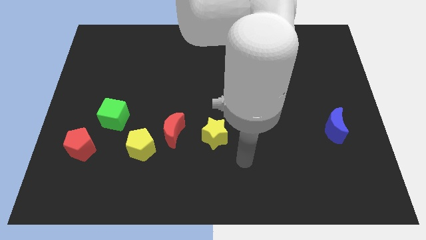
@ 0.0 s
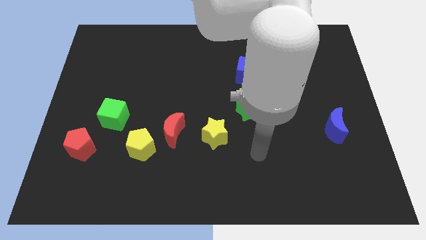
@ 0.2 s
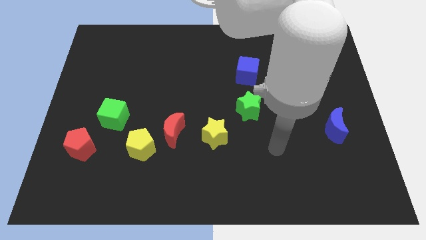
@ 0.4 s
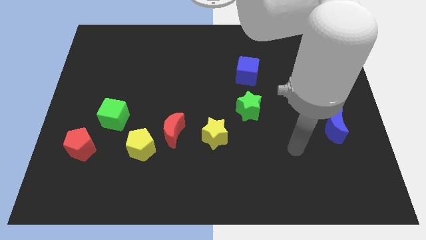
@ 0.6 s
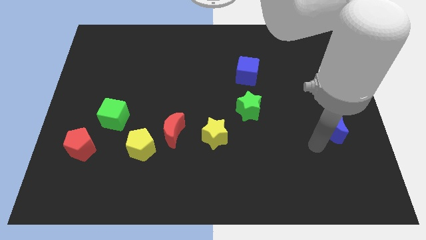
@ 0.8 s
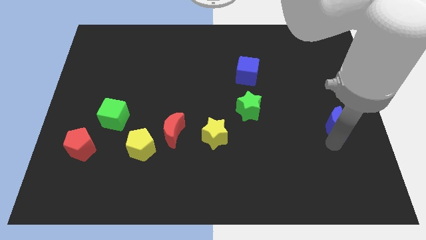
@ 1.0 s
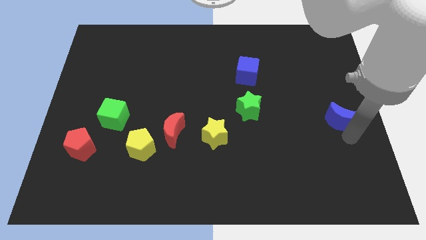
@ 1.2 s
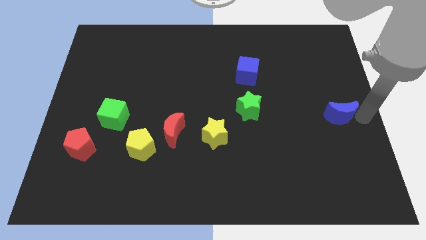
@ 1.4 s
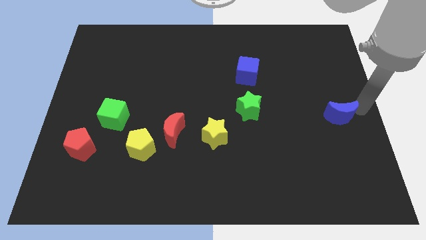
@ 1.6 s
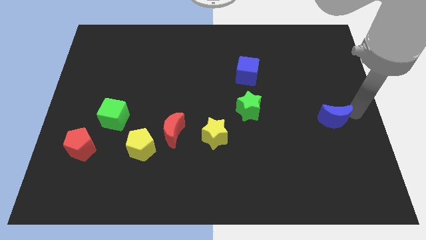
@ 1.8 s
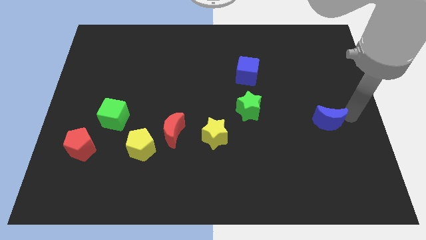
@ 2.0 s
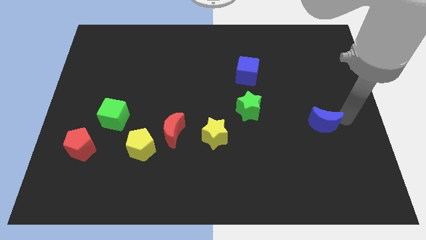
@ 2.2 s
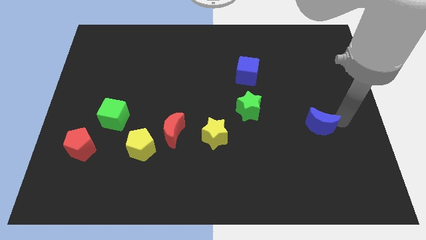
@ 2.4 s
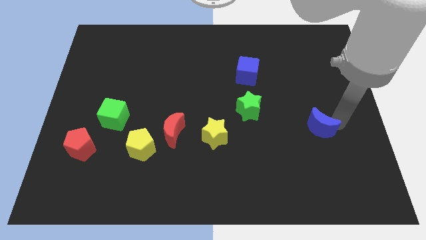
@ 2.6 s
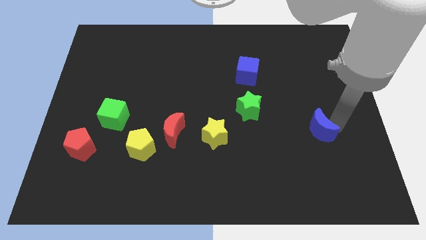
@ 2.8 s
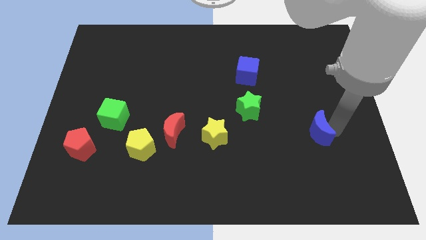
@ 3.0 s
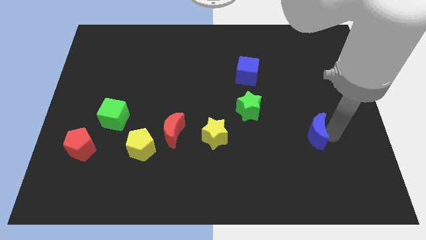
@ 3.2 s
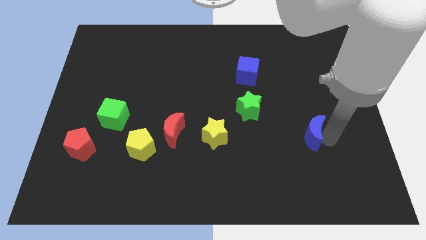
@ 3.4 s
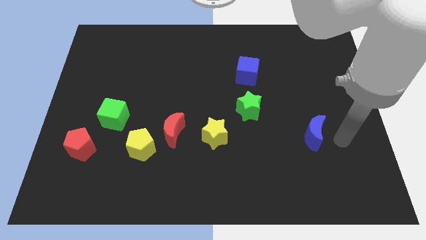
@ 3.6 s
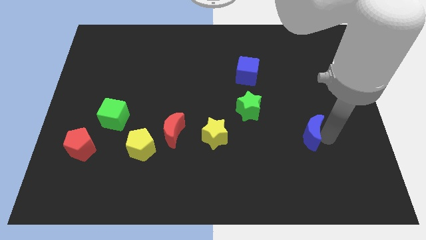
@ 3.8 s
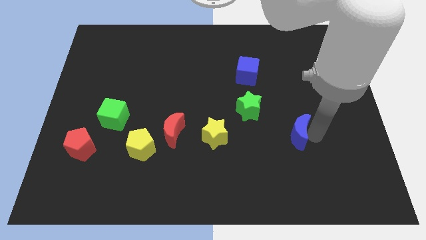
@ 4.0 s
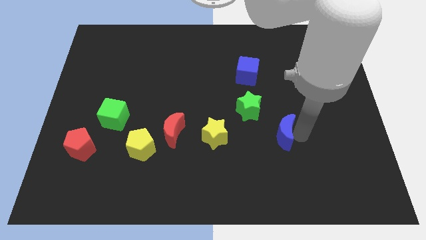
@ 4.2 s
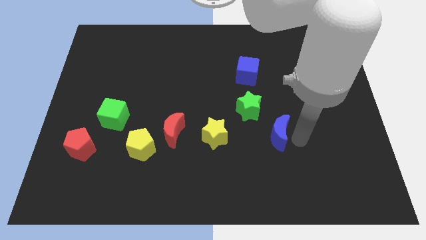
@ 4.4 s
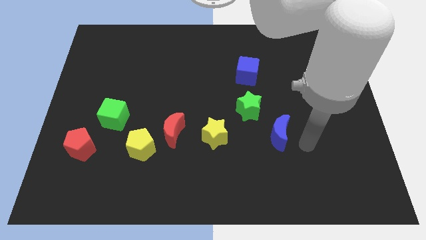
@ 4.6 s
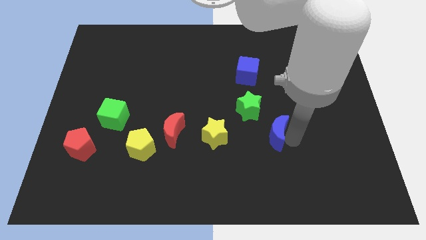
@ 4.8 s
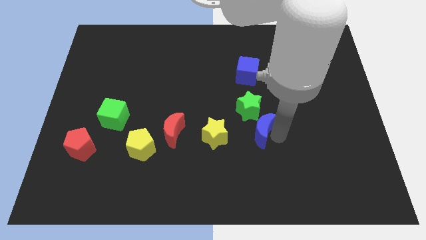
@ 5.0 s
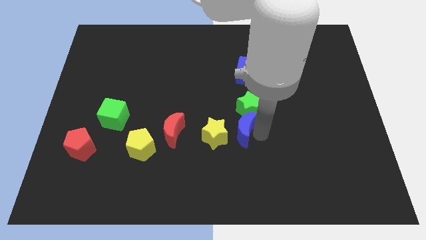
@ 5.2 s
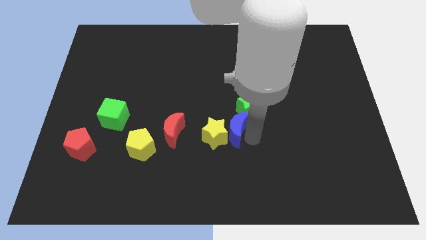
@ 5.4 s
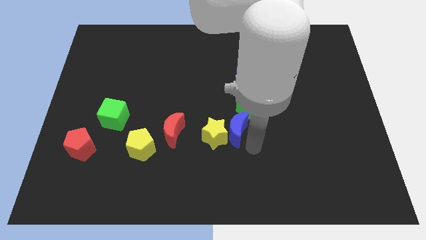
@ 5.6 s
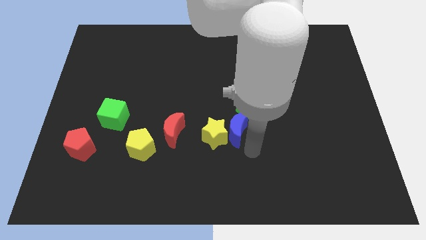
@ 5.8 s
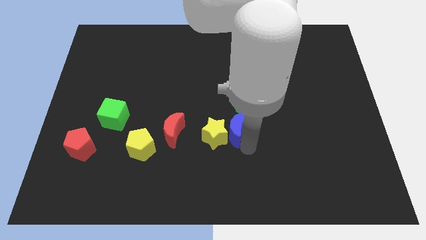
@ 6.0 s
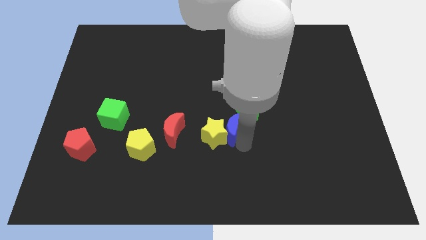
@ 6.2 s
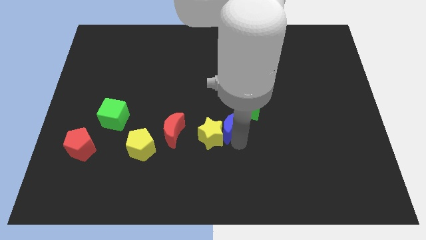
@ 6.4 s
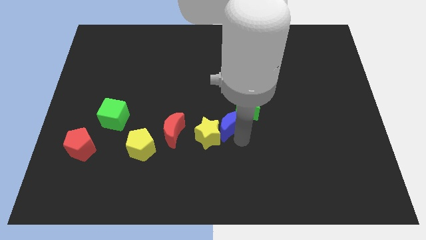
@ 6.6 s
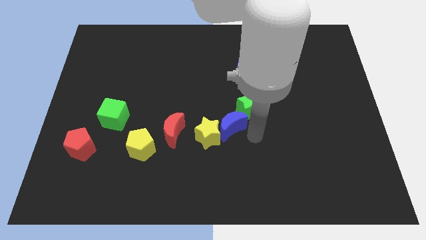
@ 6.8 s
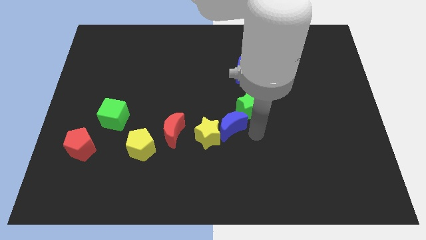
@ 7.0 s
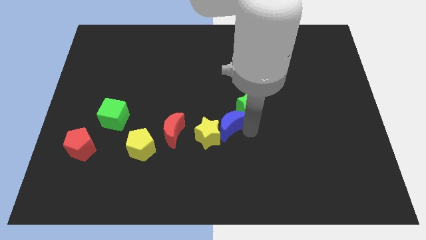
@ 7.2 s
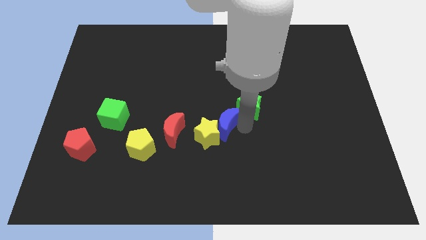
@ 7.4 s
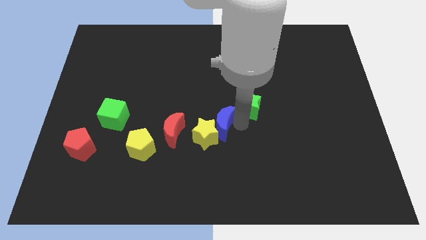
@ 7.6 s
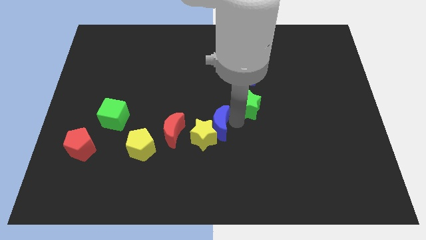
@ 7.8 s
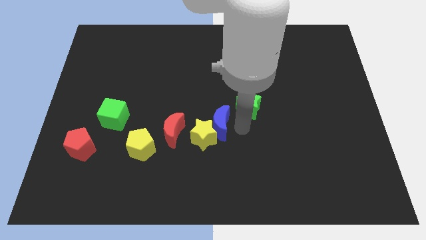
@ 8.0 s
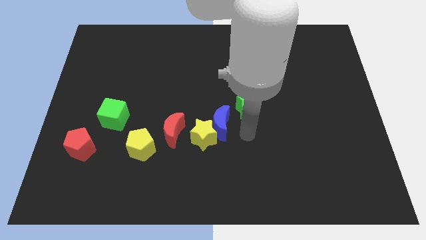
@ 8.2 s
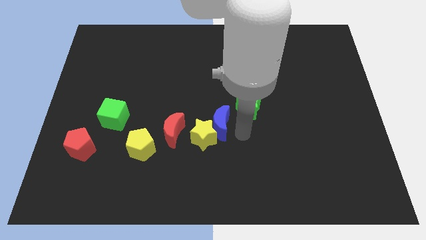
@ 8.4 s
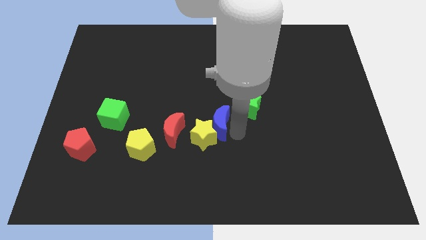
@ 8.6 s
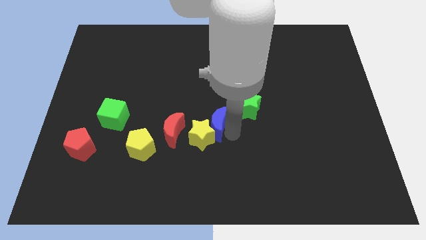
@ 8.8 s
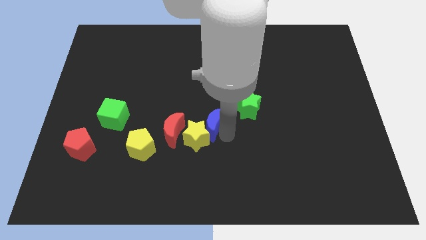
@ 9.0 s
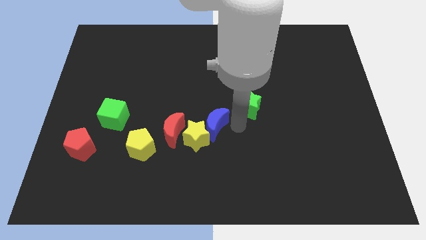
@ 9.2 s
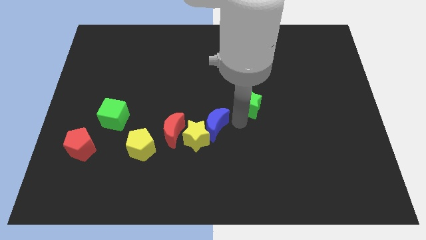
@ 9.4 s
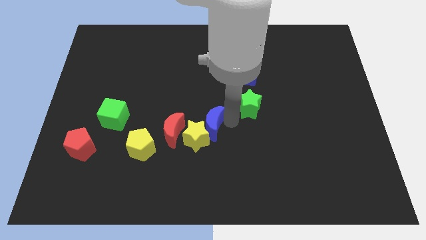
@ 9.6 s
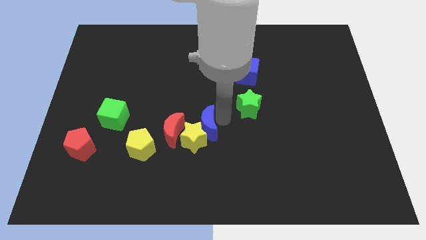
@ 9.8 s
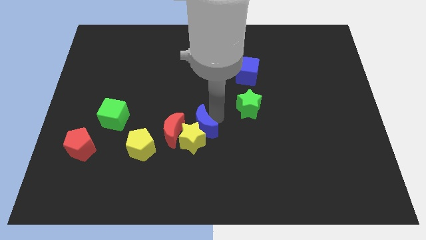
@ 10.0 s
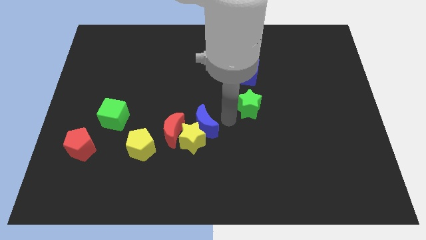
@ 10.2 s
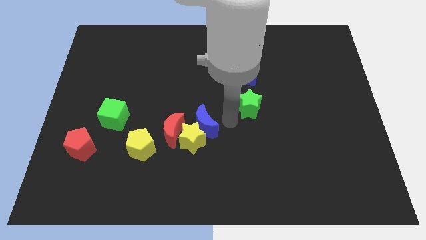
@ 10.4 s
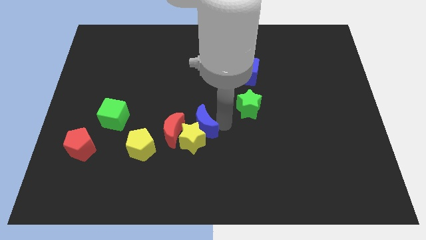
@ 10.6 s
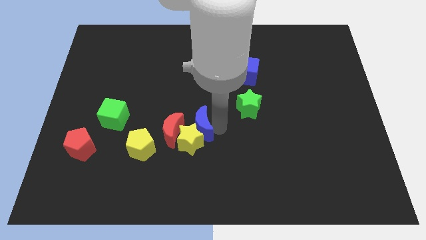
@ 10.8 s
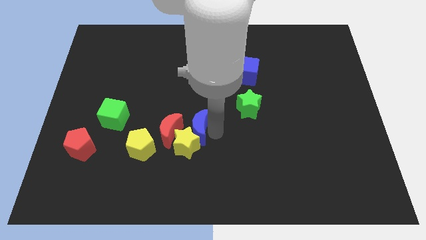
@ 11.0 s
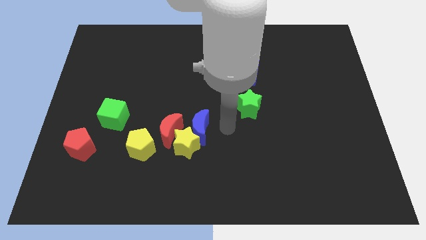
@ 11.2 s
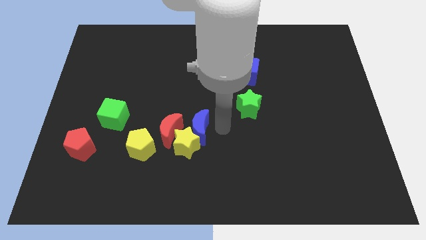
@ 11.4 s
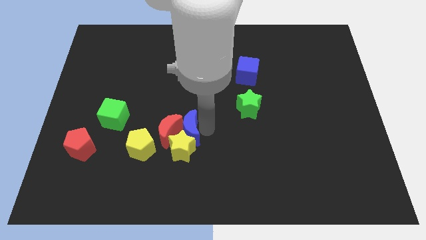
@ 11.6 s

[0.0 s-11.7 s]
slide the blue moon towards the red moon

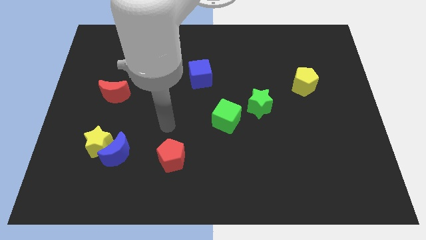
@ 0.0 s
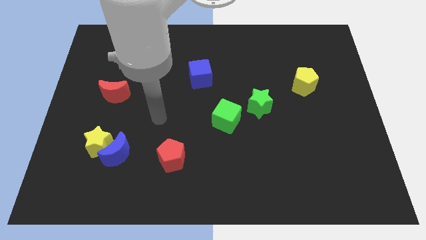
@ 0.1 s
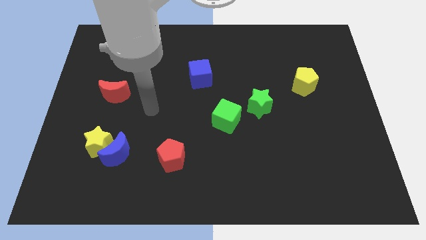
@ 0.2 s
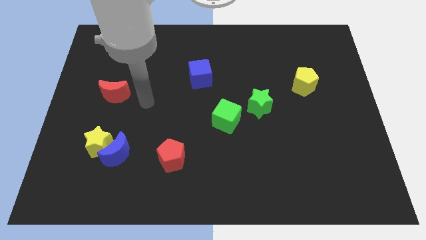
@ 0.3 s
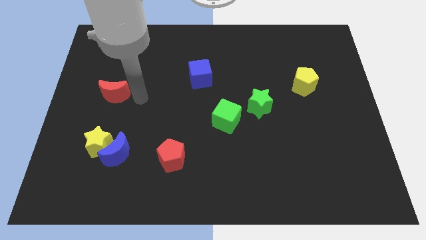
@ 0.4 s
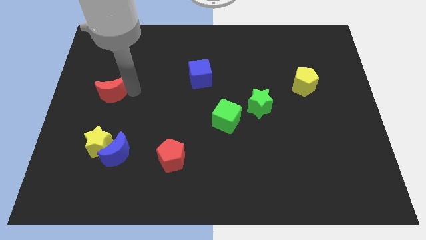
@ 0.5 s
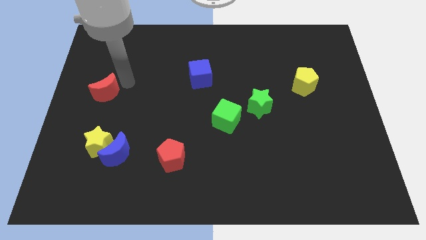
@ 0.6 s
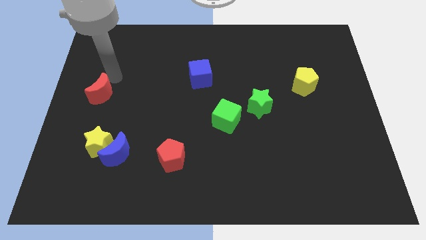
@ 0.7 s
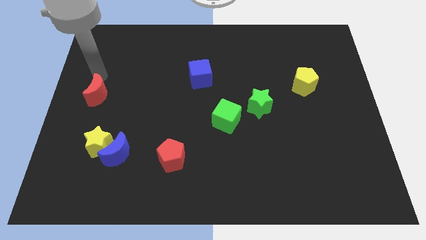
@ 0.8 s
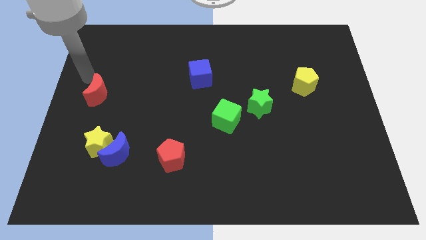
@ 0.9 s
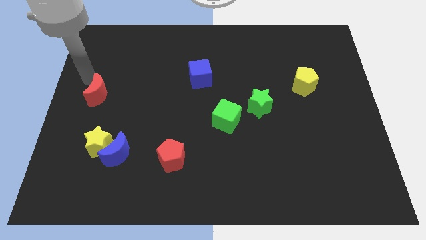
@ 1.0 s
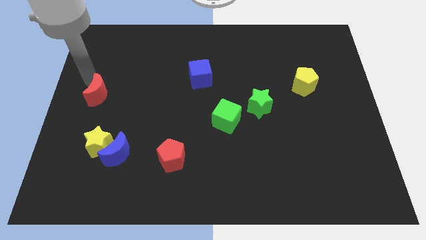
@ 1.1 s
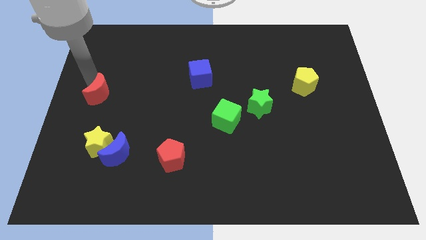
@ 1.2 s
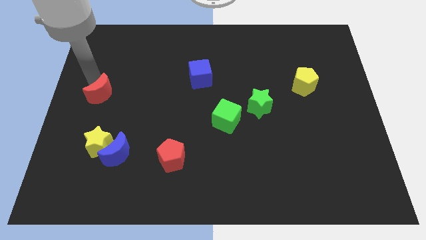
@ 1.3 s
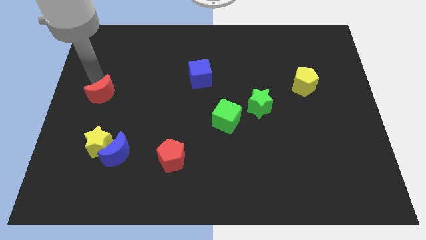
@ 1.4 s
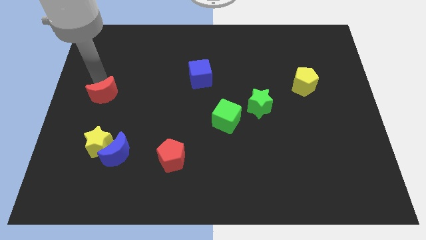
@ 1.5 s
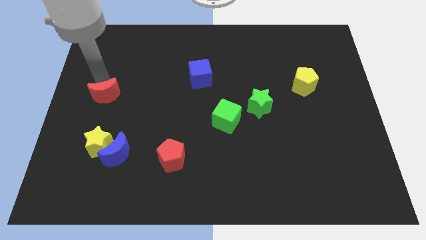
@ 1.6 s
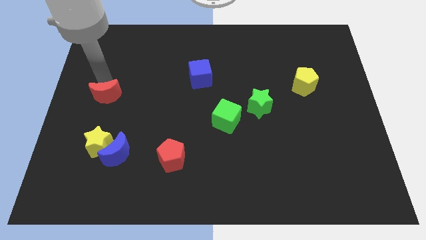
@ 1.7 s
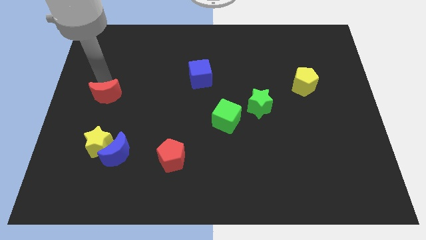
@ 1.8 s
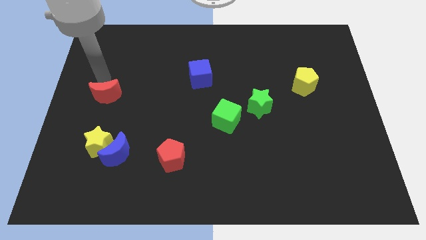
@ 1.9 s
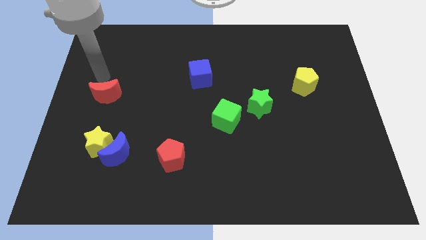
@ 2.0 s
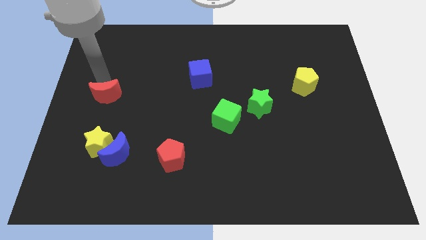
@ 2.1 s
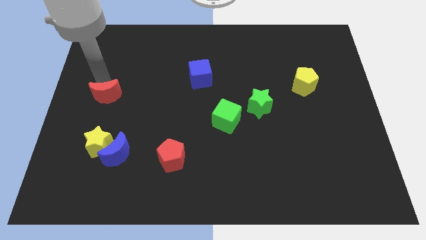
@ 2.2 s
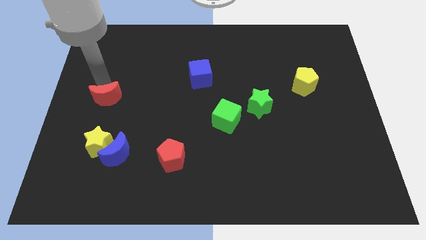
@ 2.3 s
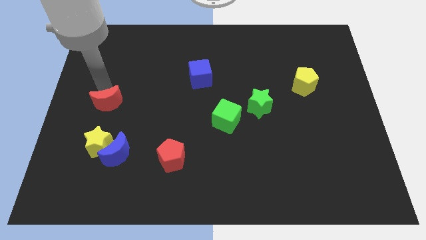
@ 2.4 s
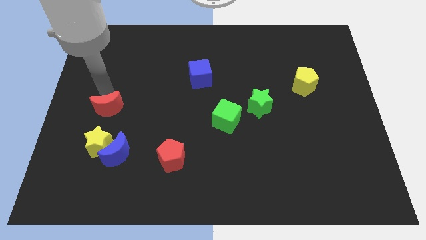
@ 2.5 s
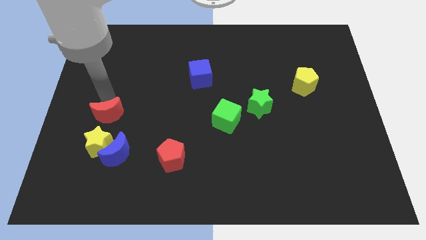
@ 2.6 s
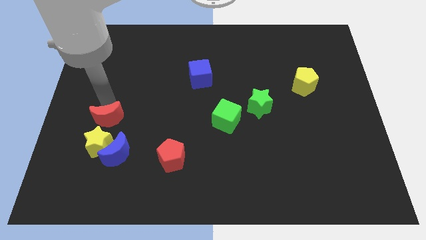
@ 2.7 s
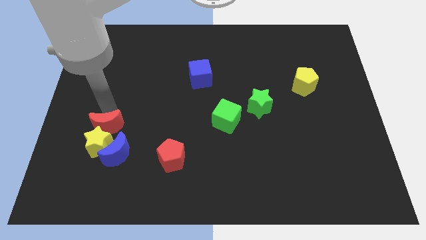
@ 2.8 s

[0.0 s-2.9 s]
put the red moon next to the yellow star
